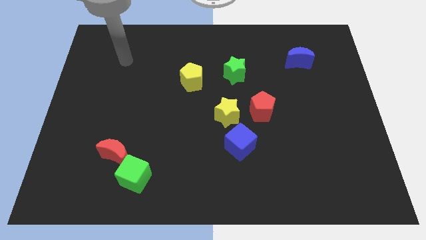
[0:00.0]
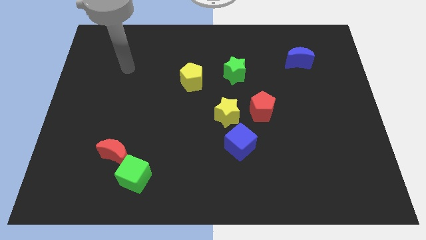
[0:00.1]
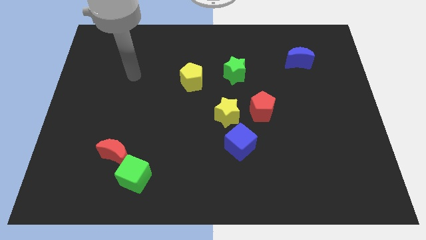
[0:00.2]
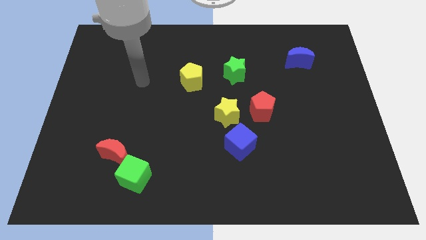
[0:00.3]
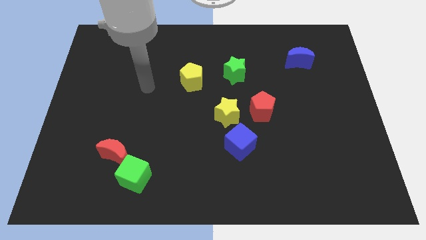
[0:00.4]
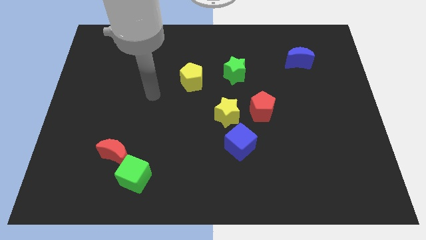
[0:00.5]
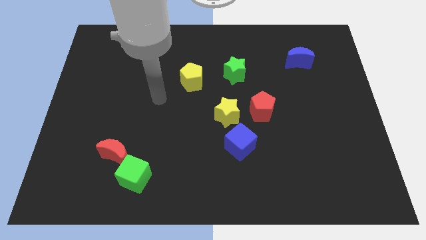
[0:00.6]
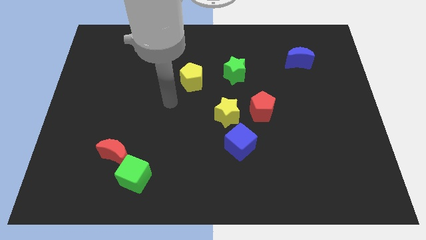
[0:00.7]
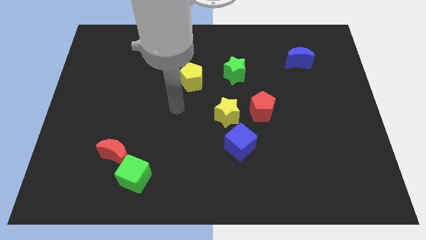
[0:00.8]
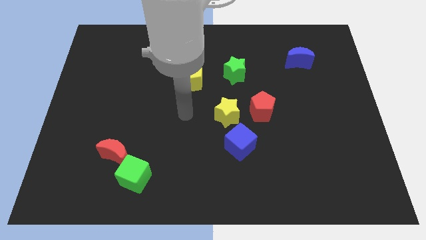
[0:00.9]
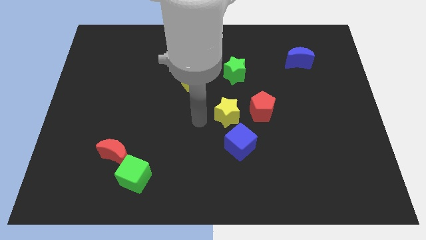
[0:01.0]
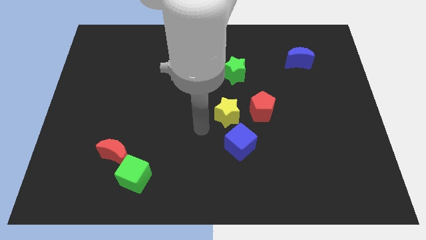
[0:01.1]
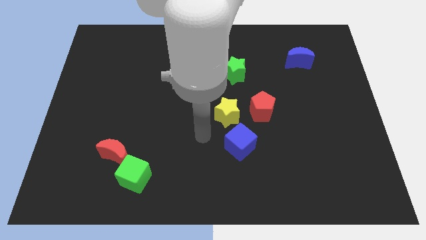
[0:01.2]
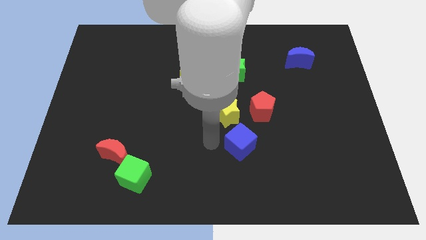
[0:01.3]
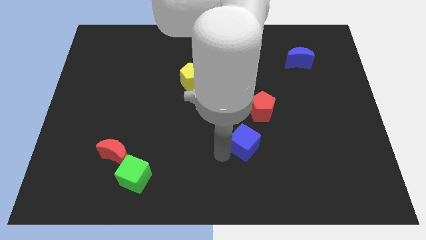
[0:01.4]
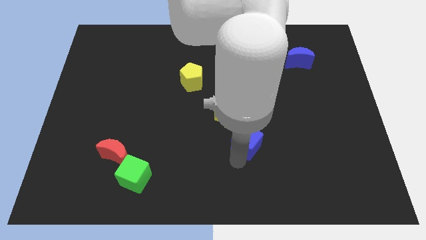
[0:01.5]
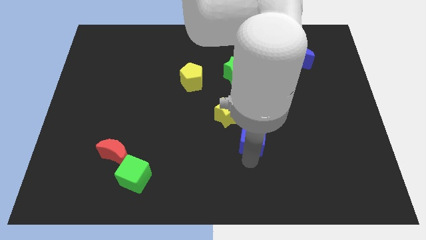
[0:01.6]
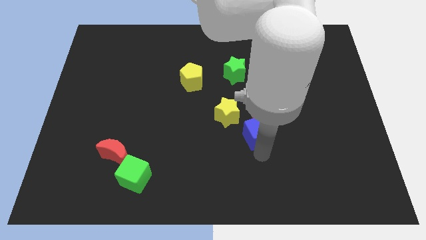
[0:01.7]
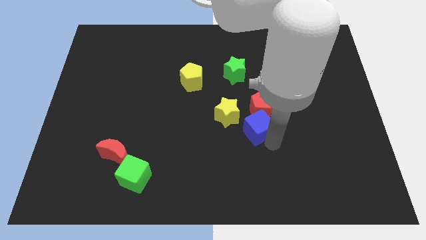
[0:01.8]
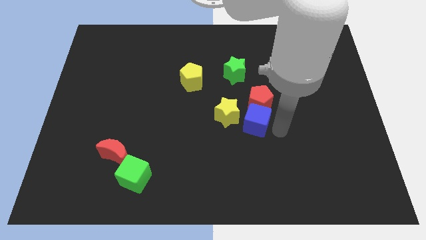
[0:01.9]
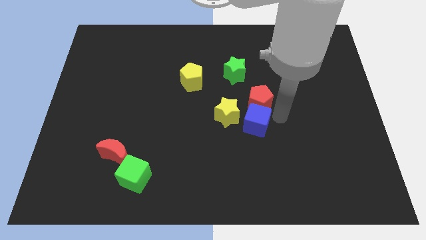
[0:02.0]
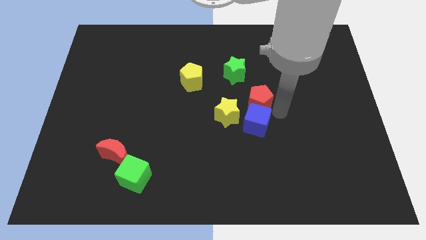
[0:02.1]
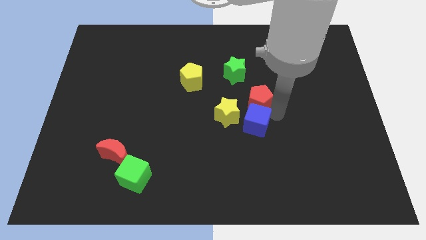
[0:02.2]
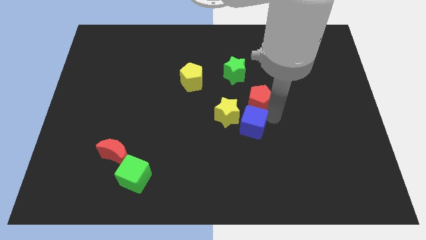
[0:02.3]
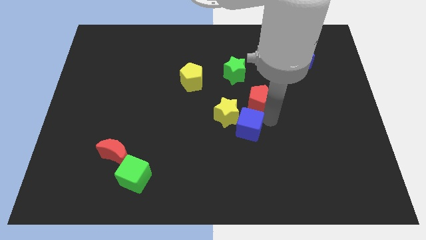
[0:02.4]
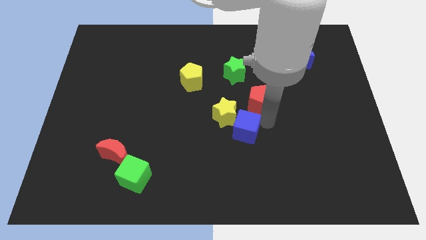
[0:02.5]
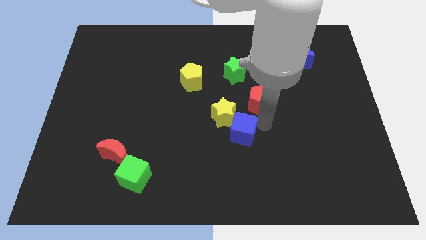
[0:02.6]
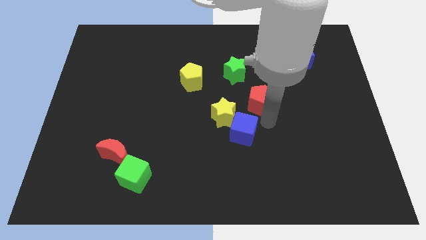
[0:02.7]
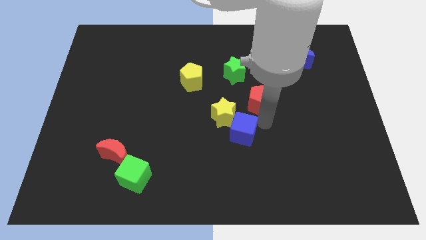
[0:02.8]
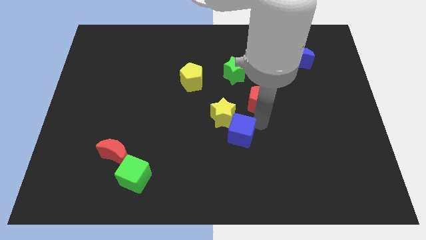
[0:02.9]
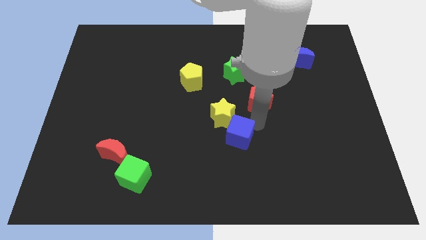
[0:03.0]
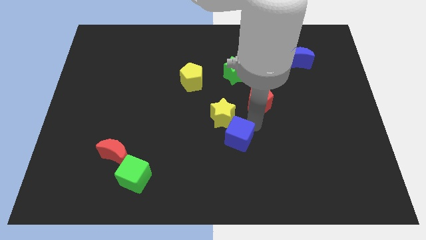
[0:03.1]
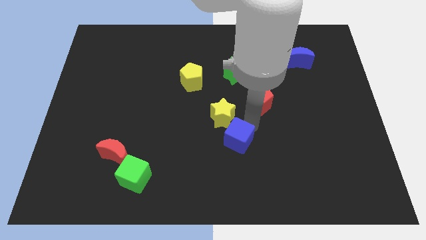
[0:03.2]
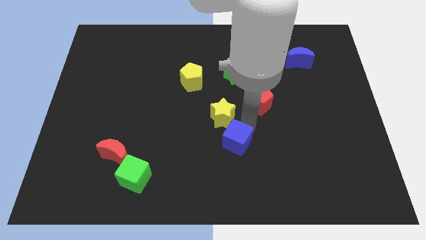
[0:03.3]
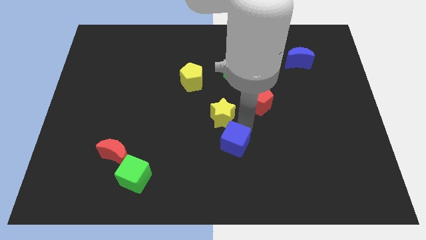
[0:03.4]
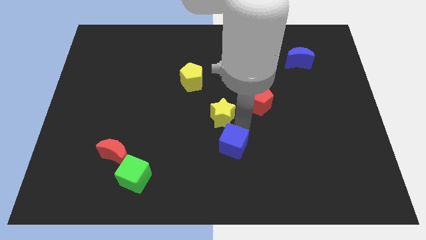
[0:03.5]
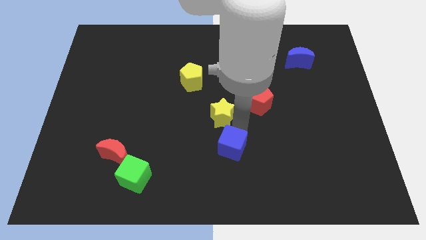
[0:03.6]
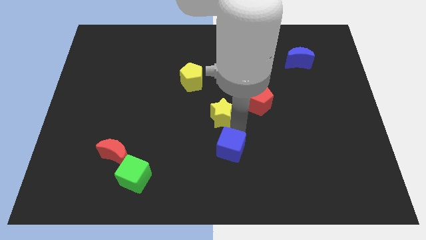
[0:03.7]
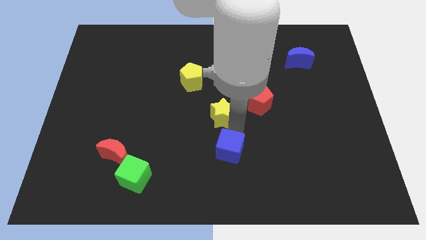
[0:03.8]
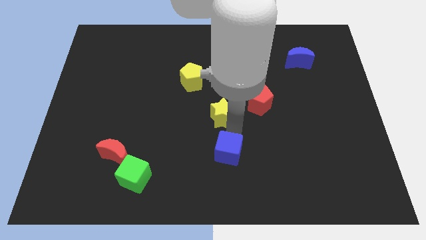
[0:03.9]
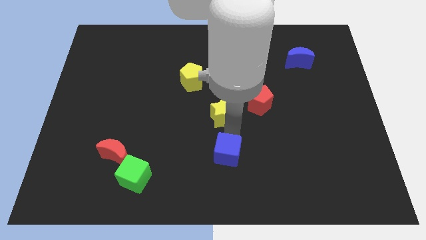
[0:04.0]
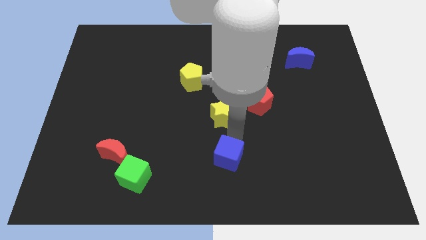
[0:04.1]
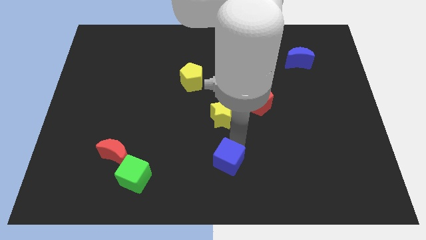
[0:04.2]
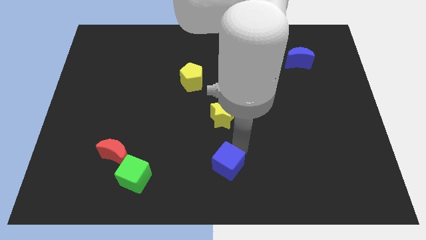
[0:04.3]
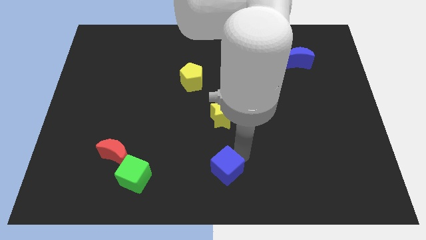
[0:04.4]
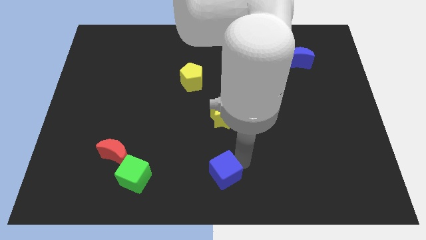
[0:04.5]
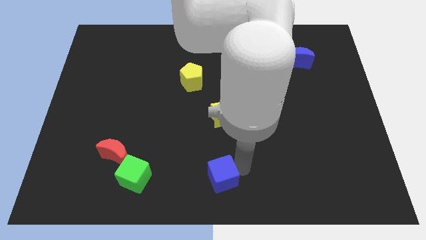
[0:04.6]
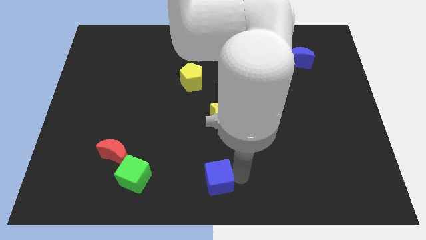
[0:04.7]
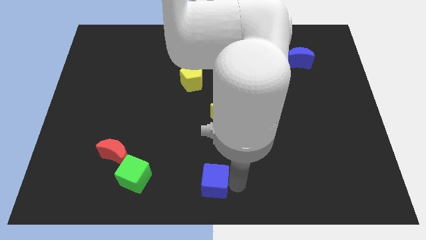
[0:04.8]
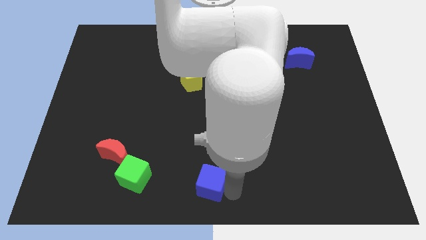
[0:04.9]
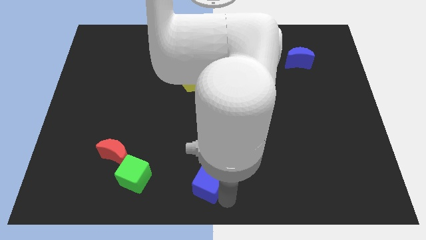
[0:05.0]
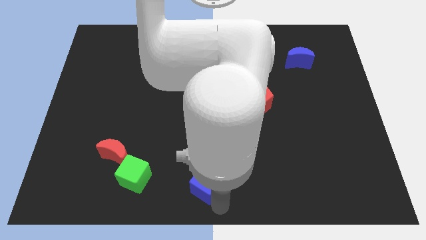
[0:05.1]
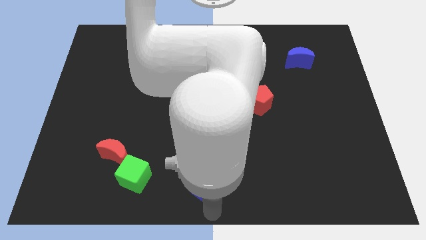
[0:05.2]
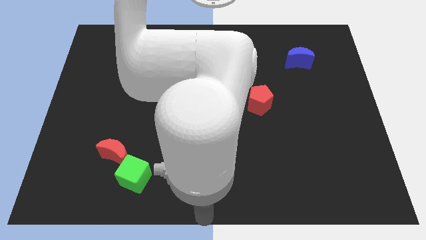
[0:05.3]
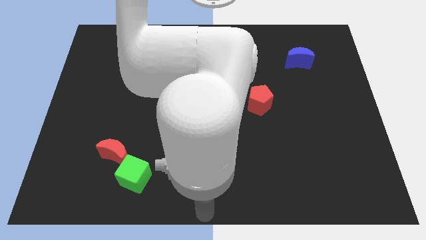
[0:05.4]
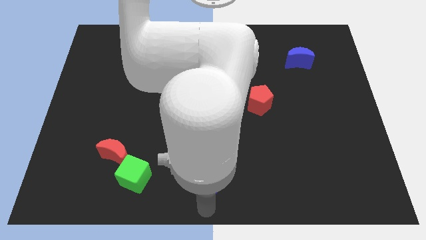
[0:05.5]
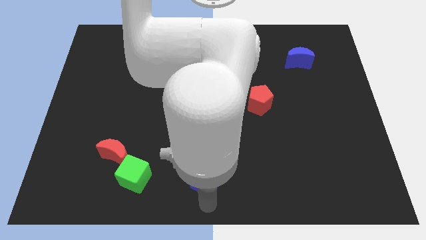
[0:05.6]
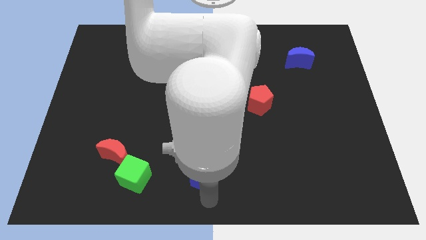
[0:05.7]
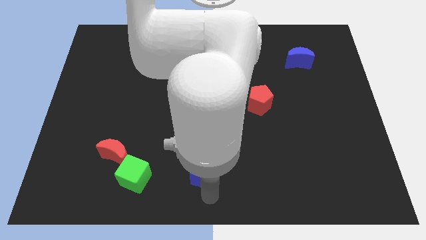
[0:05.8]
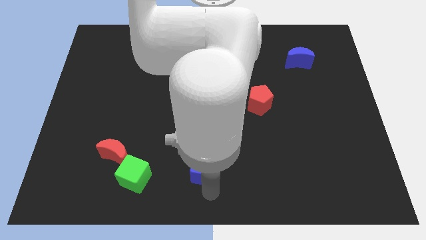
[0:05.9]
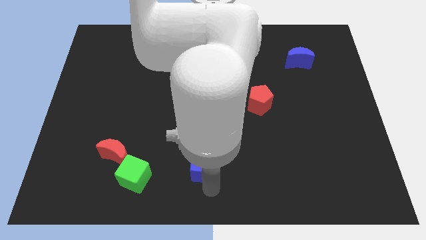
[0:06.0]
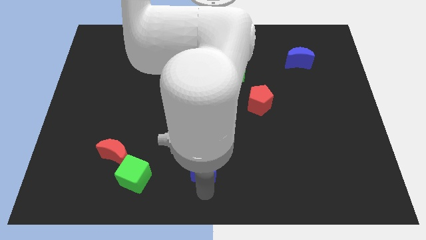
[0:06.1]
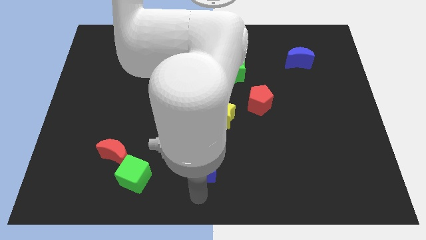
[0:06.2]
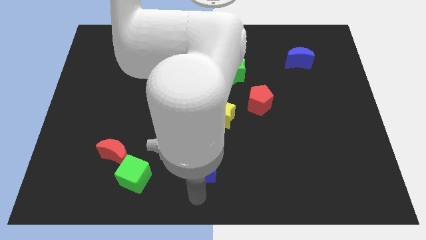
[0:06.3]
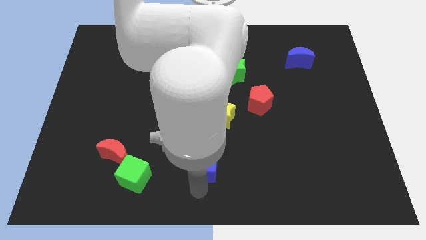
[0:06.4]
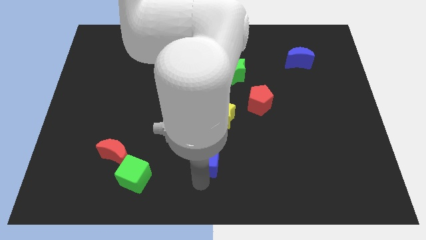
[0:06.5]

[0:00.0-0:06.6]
push the blue cube left a little

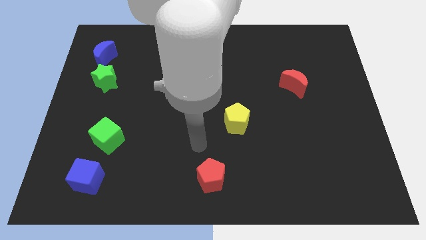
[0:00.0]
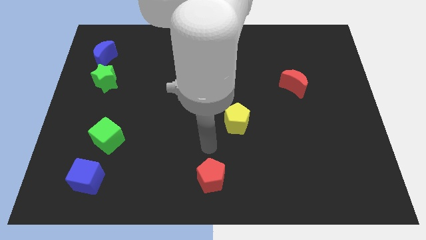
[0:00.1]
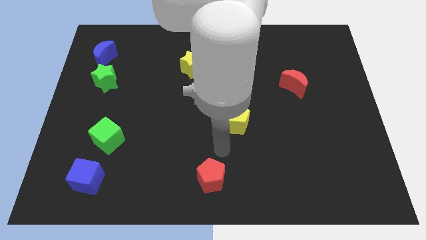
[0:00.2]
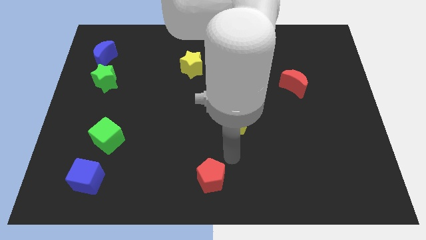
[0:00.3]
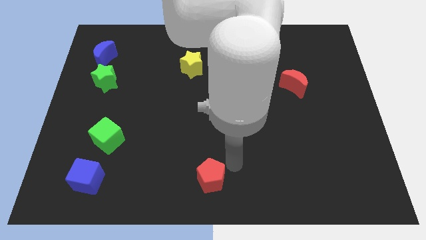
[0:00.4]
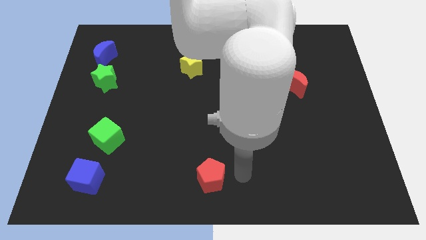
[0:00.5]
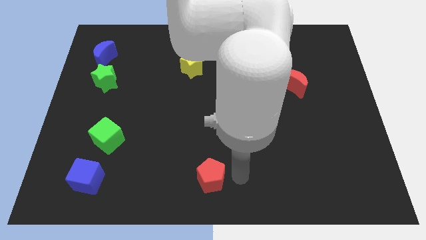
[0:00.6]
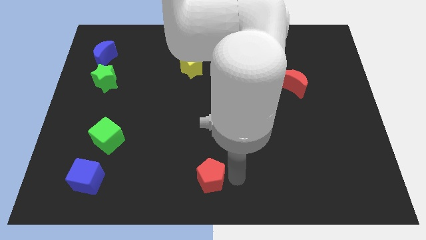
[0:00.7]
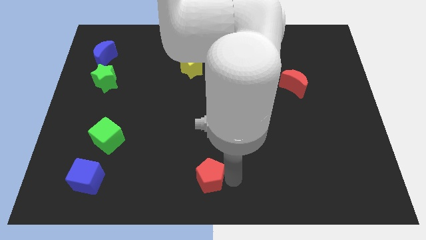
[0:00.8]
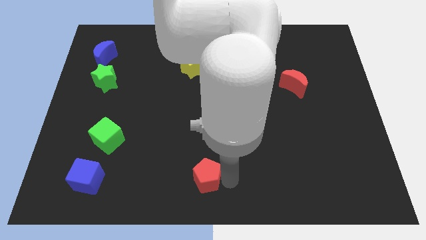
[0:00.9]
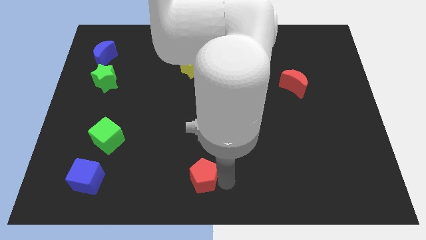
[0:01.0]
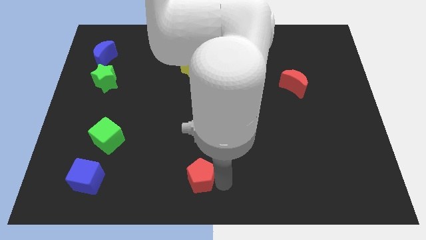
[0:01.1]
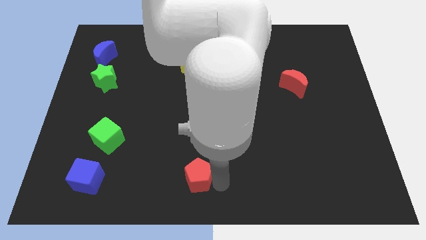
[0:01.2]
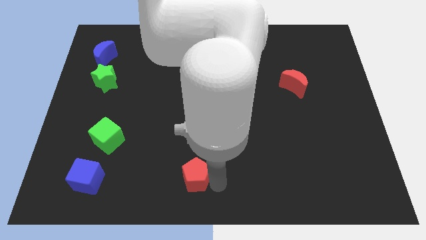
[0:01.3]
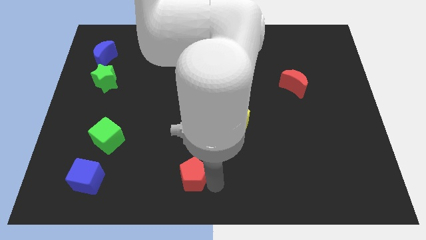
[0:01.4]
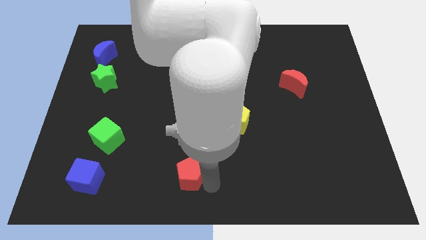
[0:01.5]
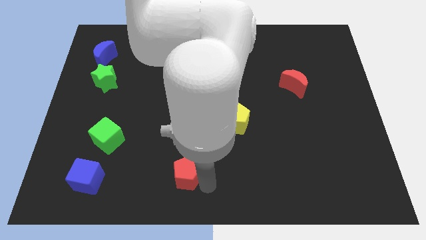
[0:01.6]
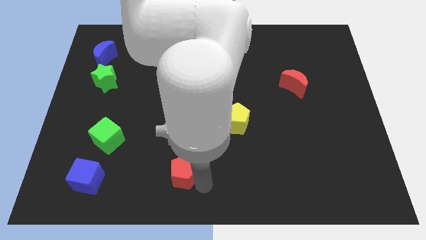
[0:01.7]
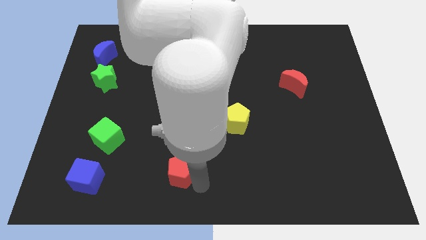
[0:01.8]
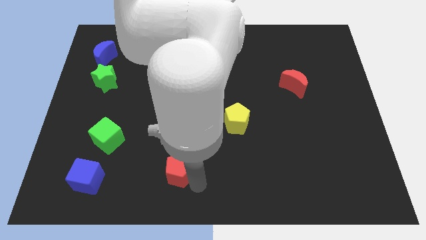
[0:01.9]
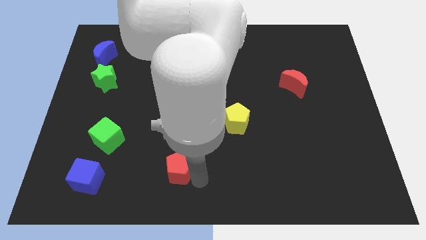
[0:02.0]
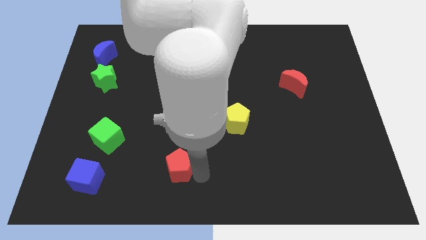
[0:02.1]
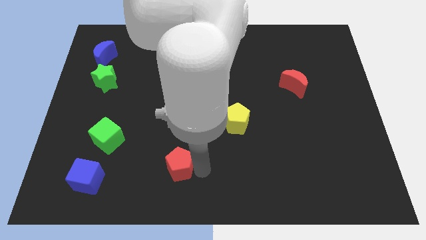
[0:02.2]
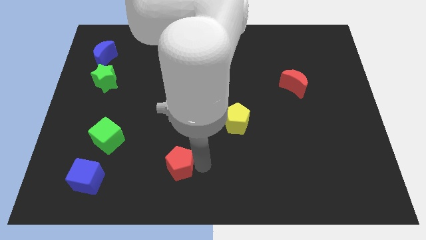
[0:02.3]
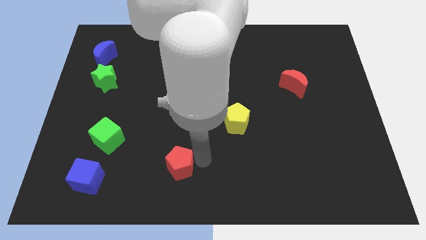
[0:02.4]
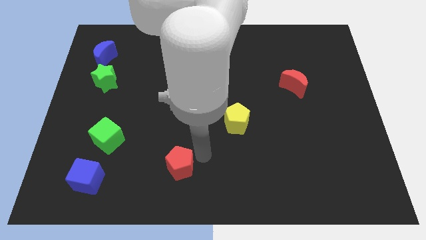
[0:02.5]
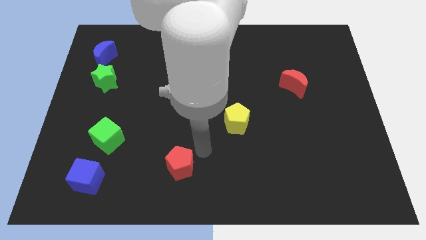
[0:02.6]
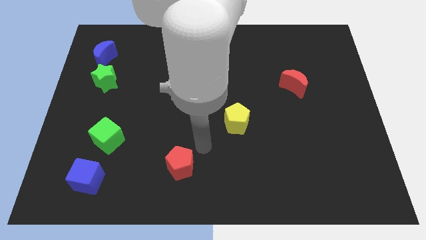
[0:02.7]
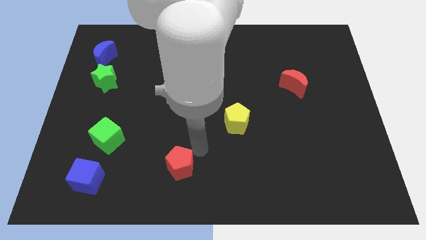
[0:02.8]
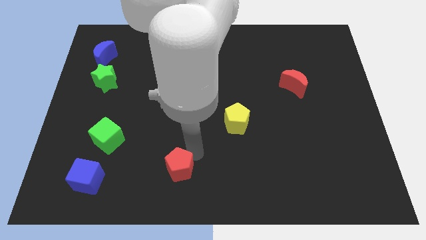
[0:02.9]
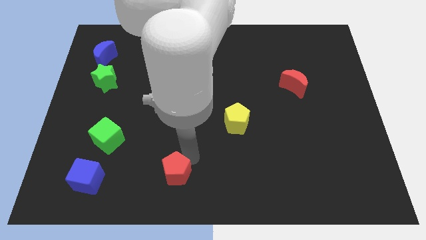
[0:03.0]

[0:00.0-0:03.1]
push the red pentagon left slightly
